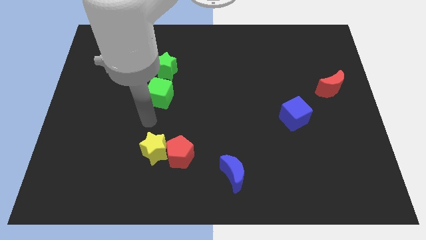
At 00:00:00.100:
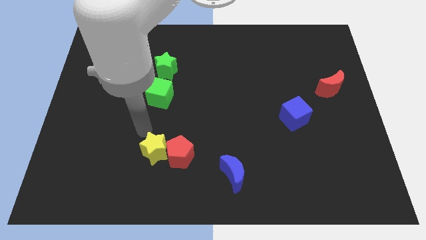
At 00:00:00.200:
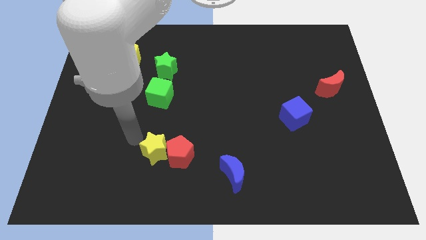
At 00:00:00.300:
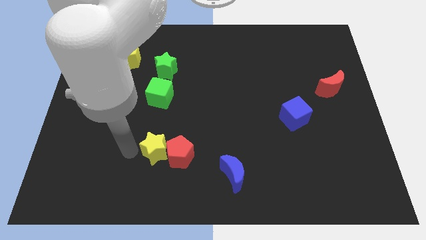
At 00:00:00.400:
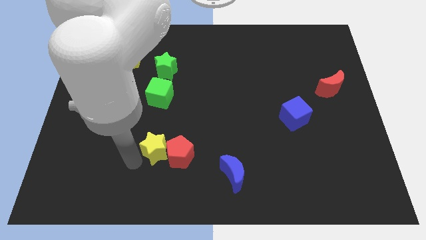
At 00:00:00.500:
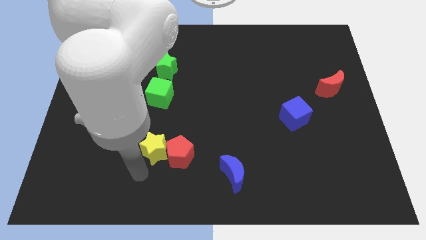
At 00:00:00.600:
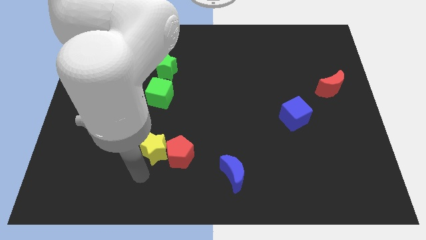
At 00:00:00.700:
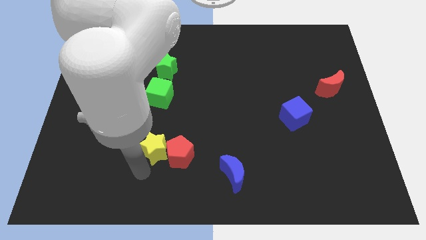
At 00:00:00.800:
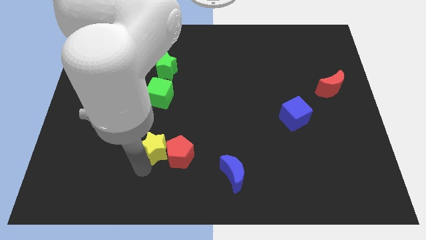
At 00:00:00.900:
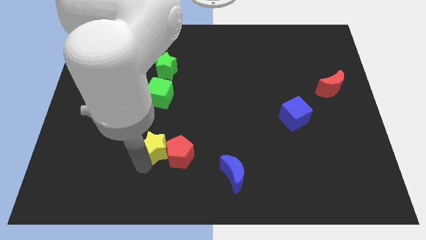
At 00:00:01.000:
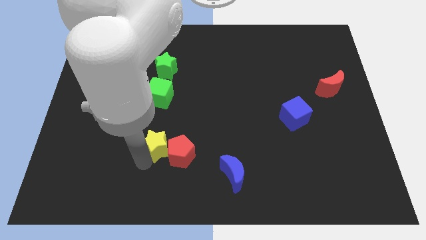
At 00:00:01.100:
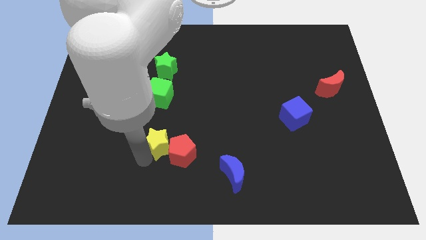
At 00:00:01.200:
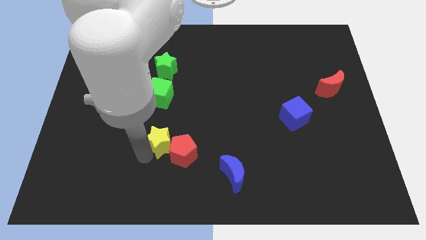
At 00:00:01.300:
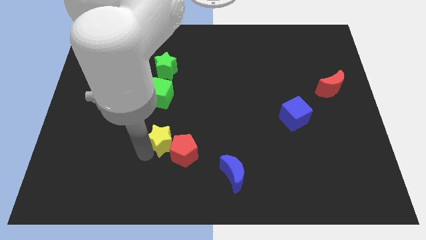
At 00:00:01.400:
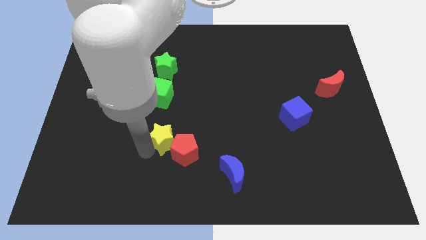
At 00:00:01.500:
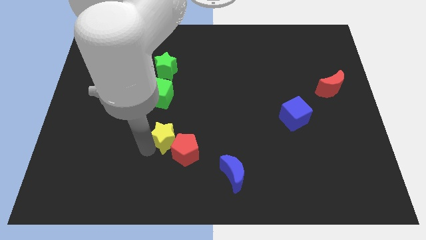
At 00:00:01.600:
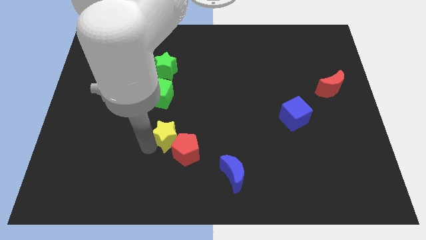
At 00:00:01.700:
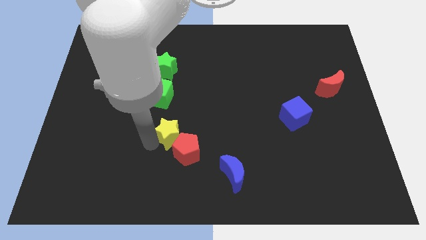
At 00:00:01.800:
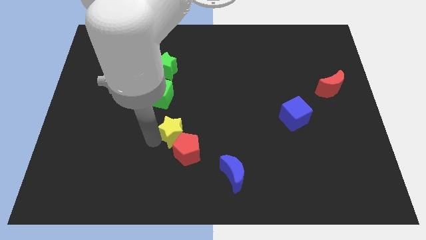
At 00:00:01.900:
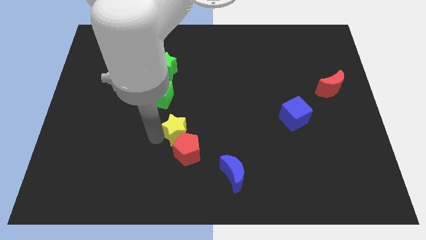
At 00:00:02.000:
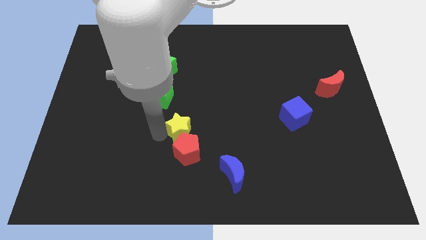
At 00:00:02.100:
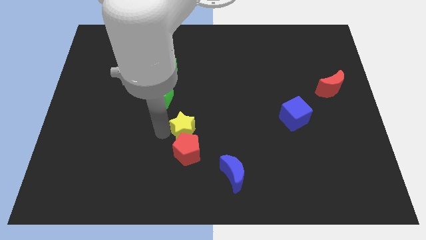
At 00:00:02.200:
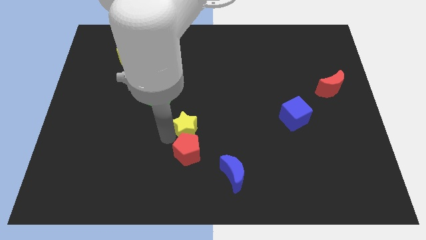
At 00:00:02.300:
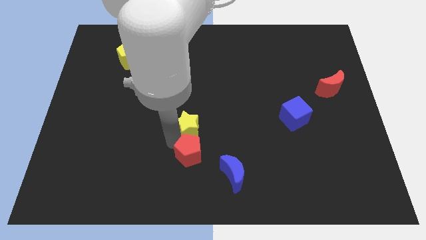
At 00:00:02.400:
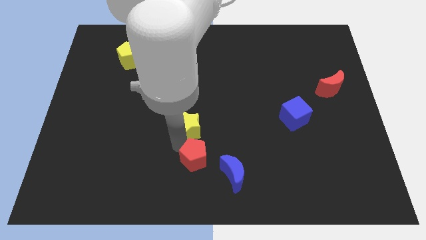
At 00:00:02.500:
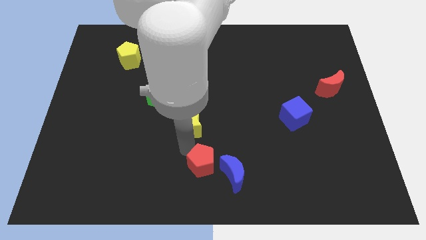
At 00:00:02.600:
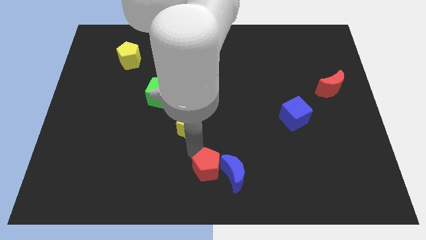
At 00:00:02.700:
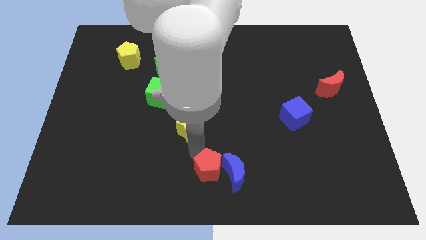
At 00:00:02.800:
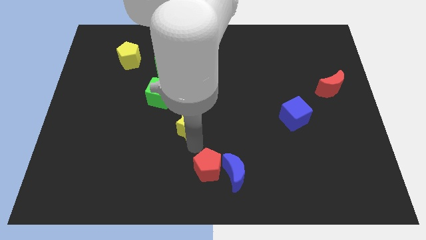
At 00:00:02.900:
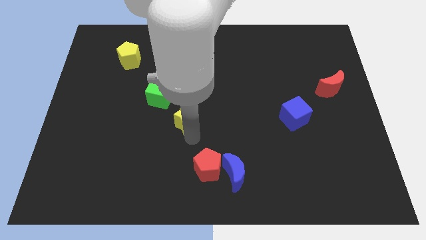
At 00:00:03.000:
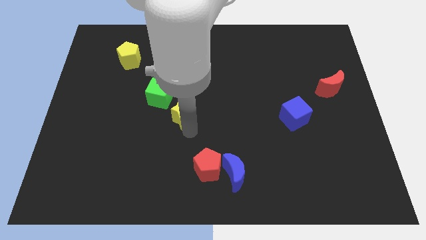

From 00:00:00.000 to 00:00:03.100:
slightly slide the yellow star up

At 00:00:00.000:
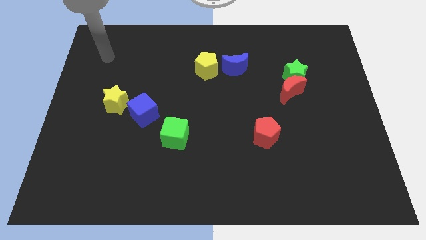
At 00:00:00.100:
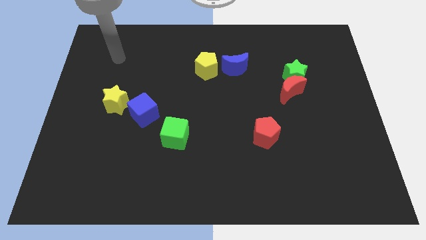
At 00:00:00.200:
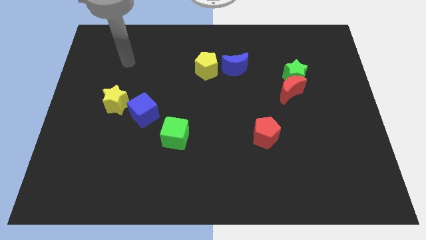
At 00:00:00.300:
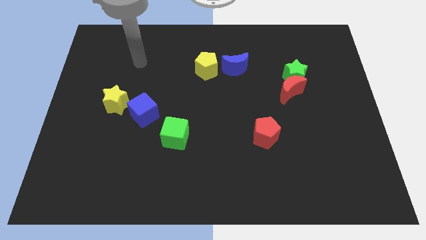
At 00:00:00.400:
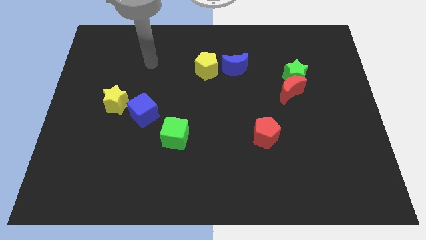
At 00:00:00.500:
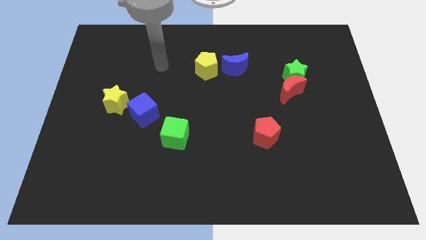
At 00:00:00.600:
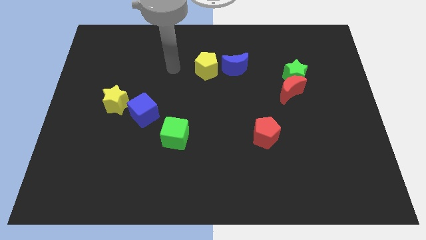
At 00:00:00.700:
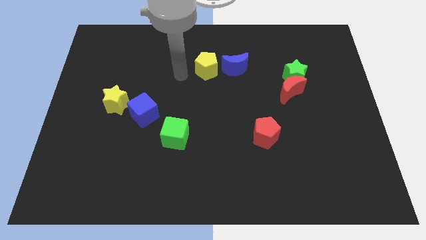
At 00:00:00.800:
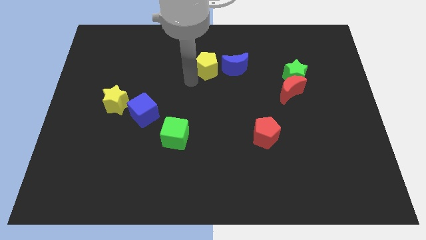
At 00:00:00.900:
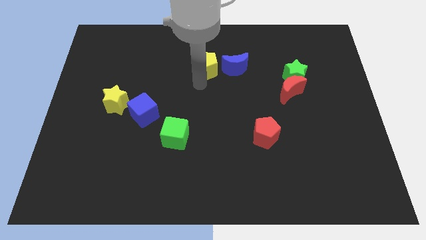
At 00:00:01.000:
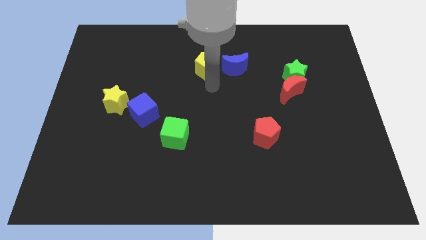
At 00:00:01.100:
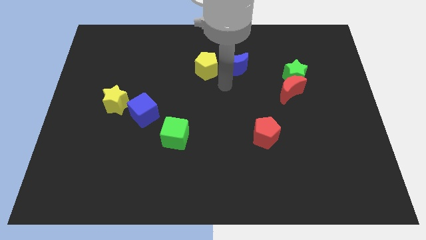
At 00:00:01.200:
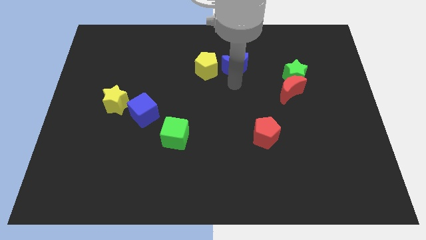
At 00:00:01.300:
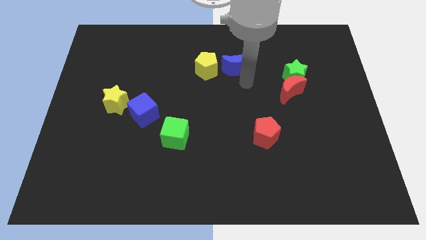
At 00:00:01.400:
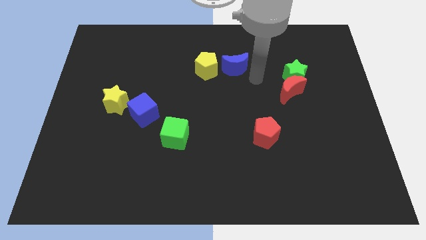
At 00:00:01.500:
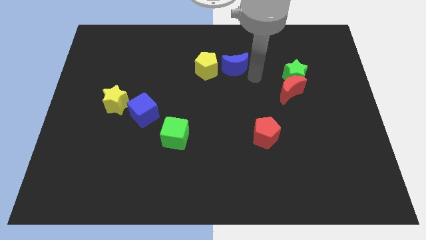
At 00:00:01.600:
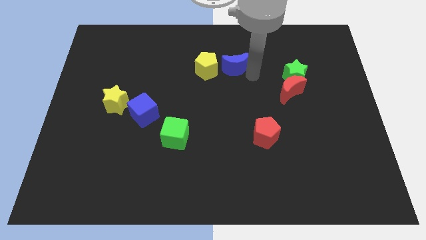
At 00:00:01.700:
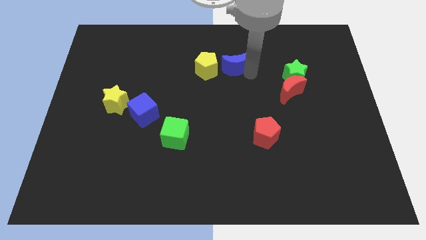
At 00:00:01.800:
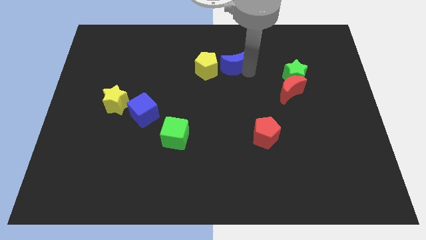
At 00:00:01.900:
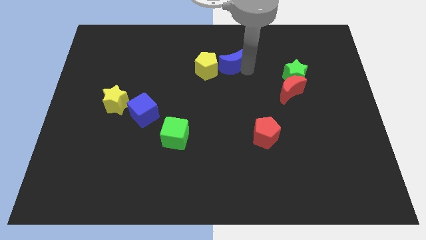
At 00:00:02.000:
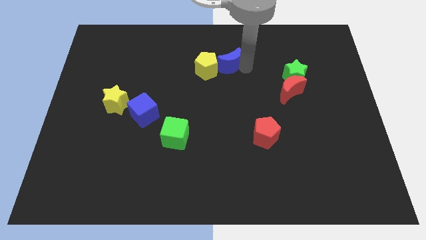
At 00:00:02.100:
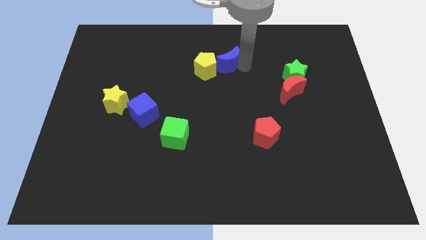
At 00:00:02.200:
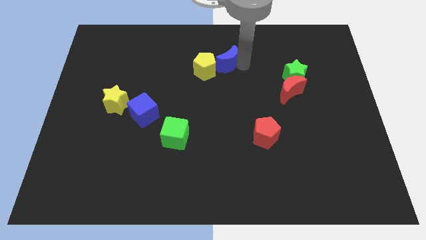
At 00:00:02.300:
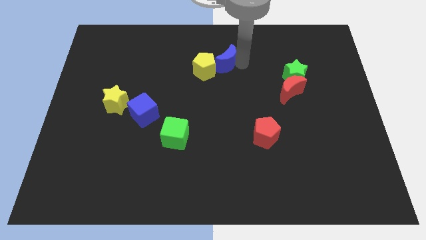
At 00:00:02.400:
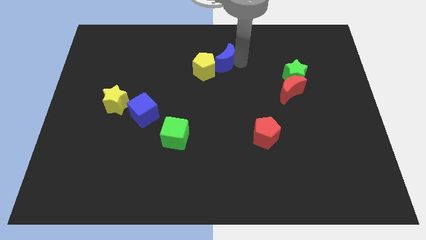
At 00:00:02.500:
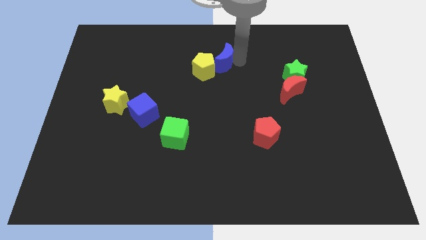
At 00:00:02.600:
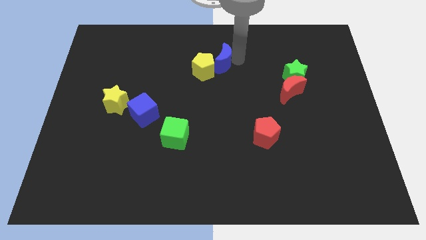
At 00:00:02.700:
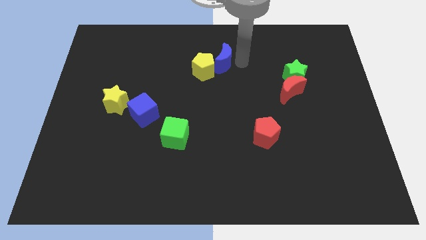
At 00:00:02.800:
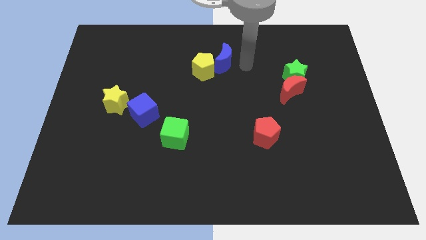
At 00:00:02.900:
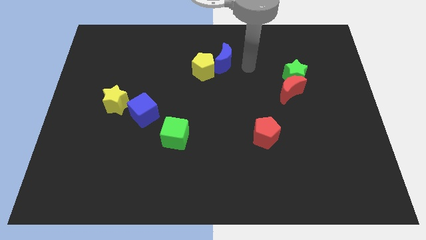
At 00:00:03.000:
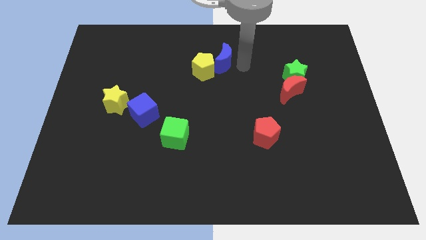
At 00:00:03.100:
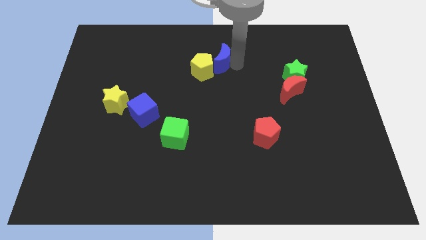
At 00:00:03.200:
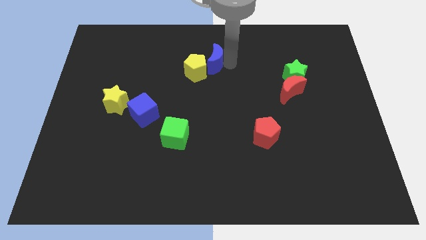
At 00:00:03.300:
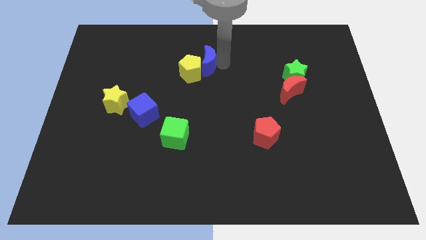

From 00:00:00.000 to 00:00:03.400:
slightly slide the blue moon to the left

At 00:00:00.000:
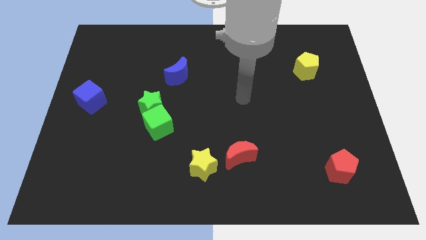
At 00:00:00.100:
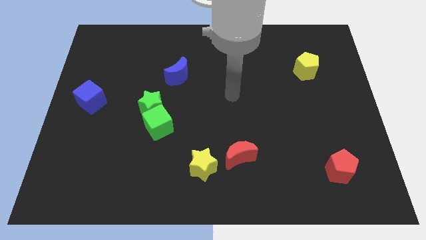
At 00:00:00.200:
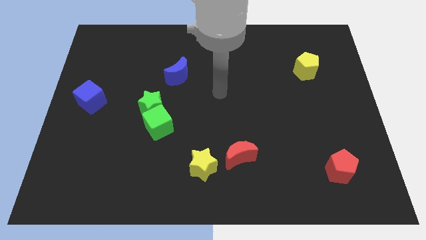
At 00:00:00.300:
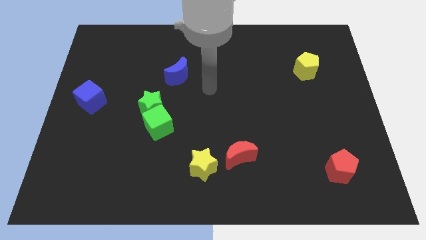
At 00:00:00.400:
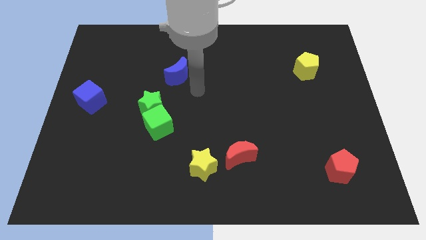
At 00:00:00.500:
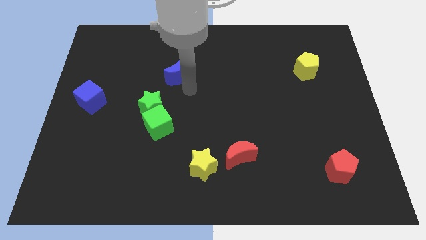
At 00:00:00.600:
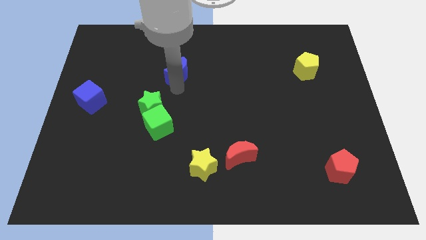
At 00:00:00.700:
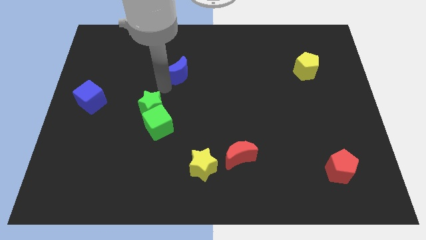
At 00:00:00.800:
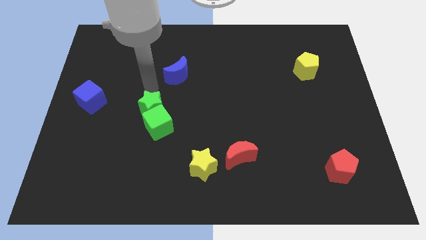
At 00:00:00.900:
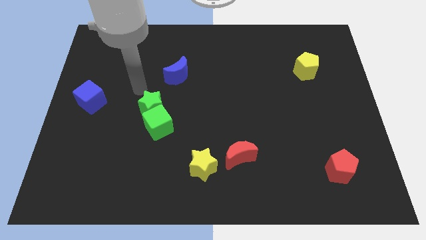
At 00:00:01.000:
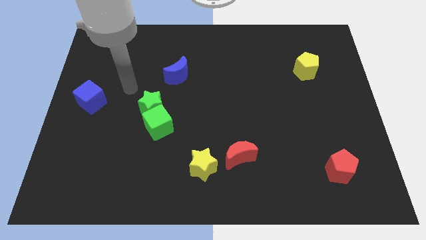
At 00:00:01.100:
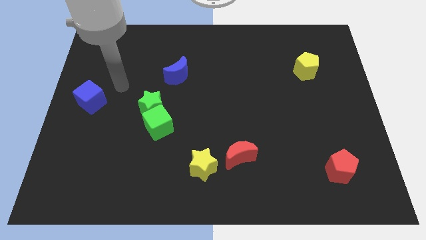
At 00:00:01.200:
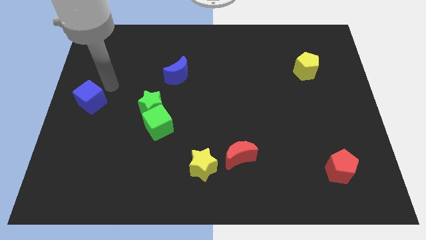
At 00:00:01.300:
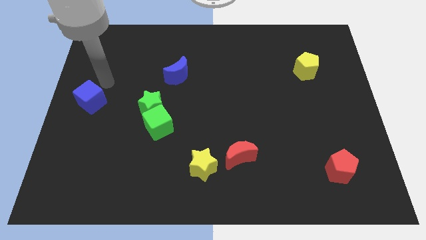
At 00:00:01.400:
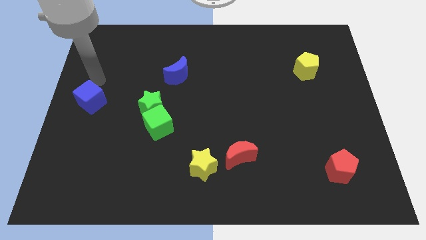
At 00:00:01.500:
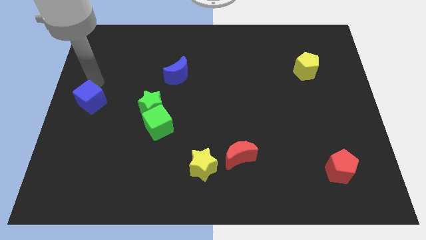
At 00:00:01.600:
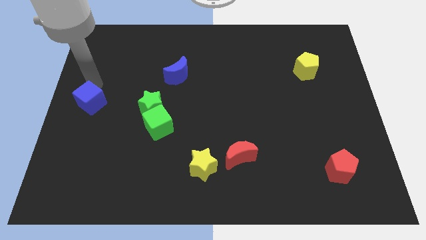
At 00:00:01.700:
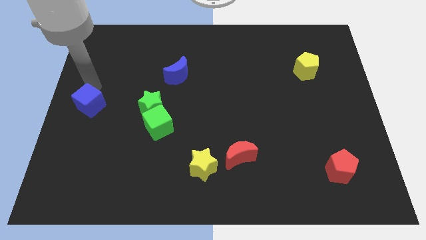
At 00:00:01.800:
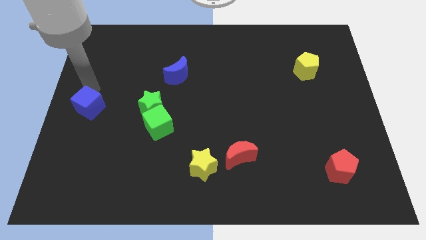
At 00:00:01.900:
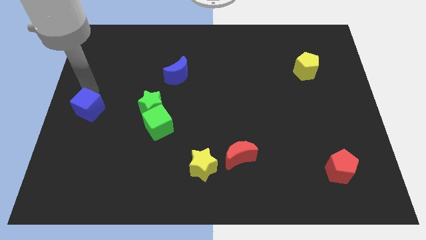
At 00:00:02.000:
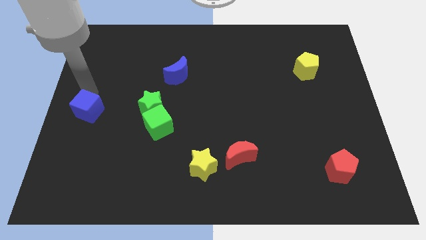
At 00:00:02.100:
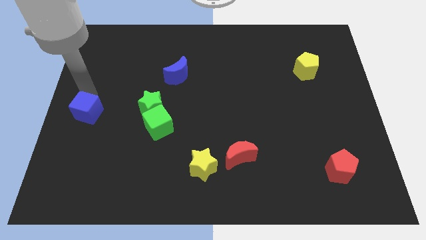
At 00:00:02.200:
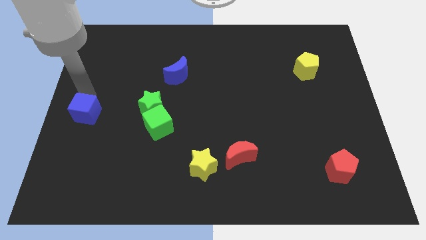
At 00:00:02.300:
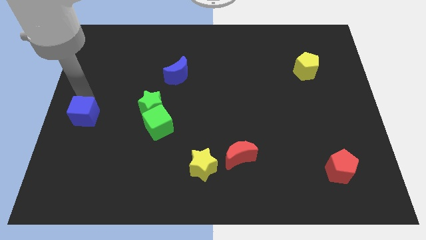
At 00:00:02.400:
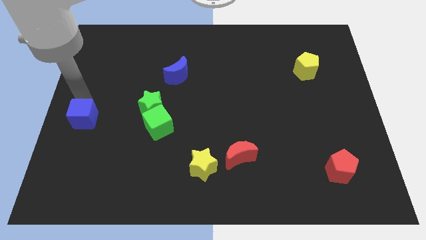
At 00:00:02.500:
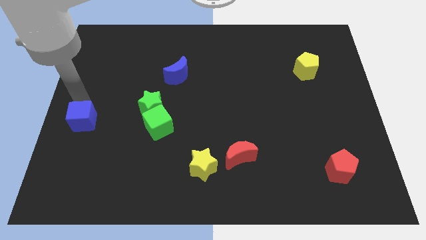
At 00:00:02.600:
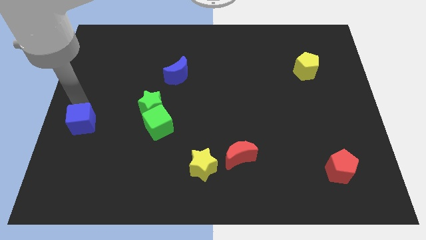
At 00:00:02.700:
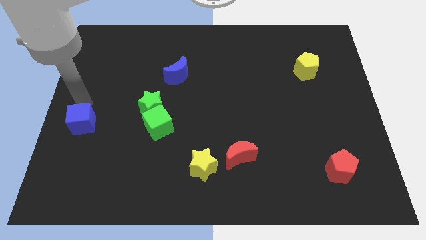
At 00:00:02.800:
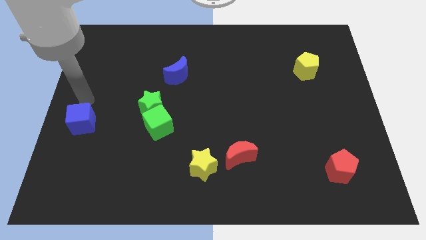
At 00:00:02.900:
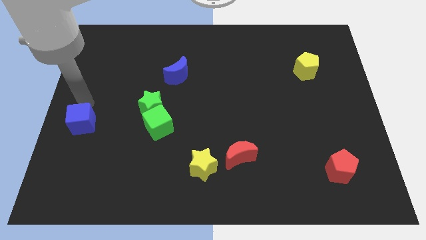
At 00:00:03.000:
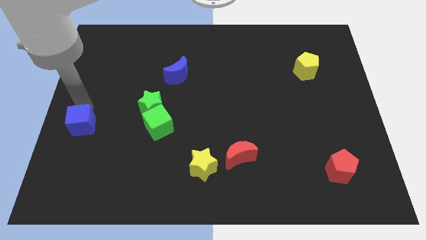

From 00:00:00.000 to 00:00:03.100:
push the blue cube downwards a little
